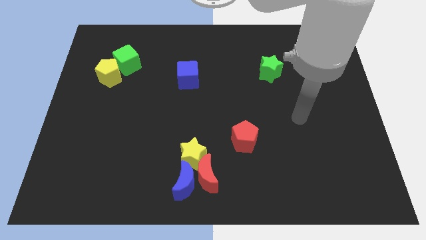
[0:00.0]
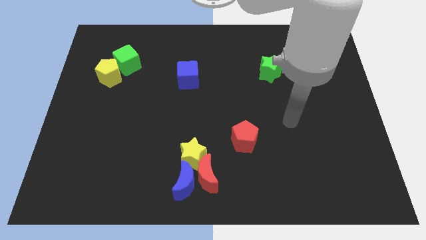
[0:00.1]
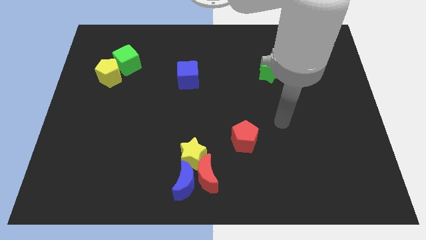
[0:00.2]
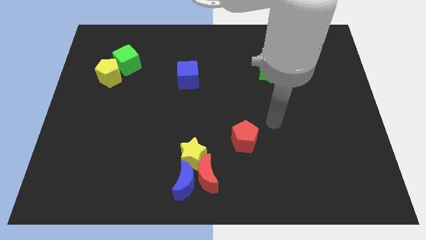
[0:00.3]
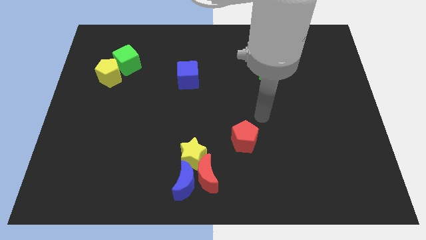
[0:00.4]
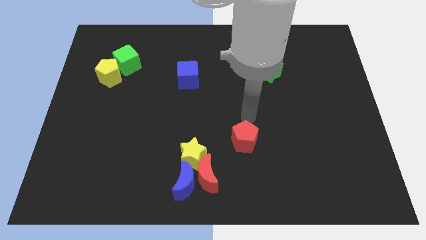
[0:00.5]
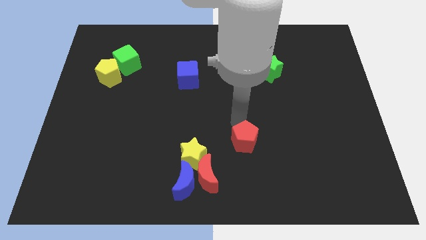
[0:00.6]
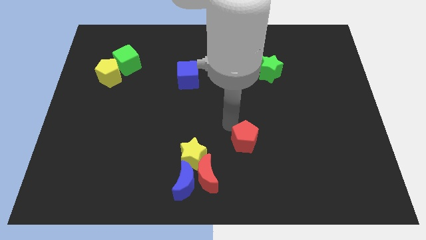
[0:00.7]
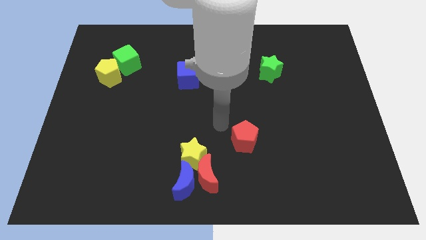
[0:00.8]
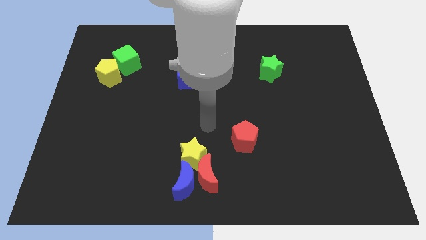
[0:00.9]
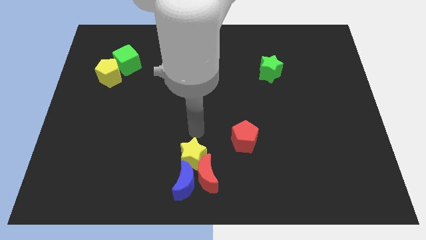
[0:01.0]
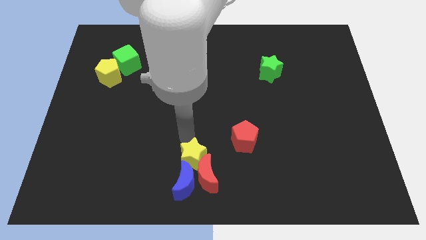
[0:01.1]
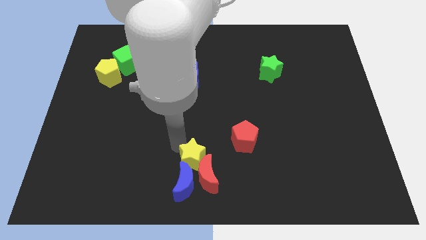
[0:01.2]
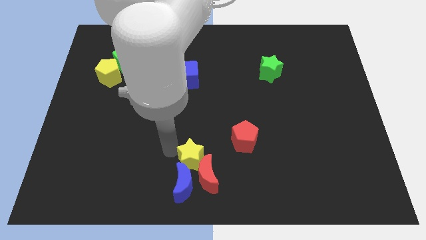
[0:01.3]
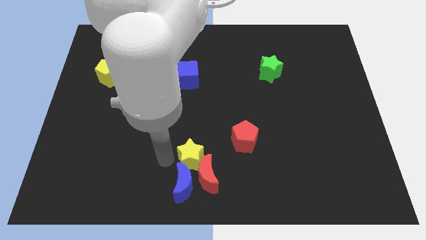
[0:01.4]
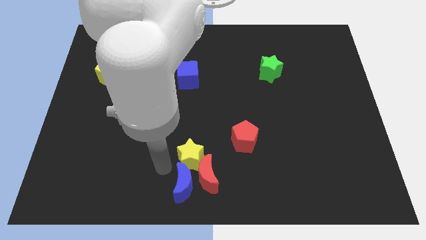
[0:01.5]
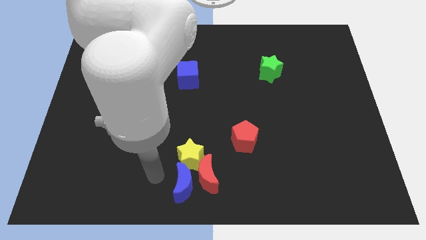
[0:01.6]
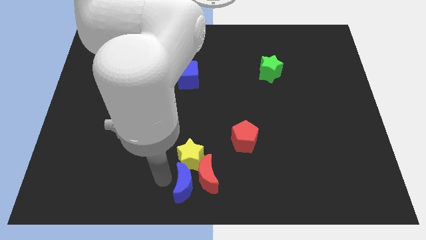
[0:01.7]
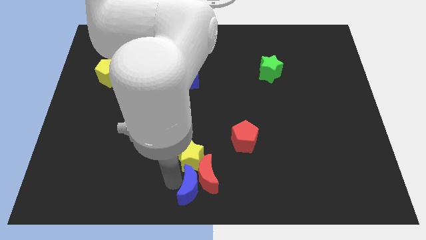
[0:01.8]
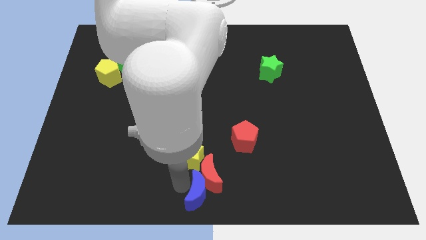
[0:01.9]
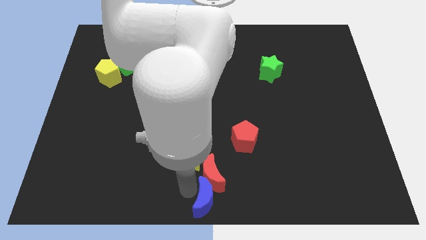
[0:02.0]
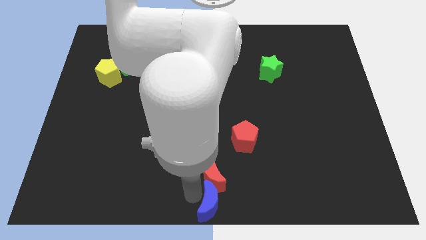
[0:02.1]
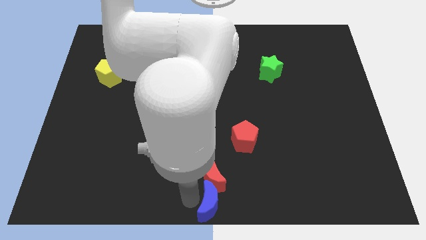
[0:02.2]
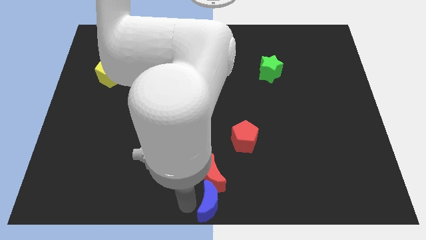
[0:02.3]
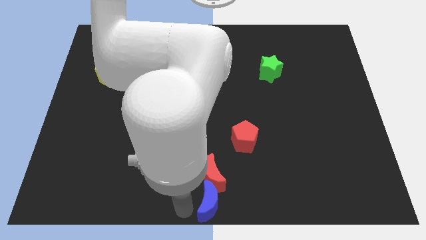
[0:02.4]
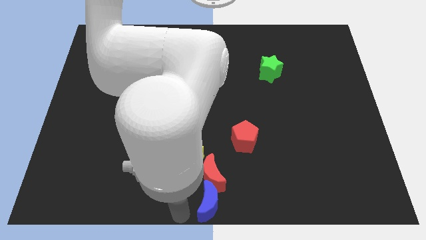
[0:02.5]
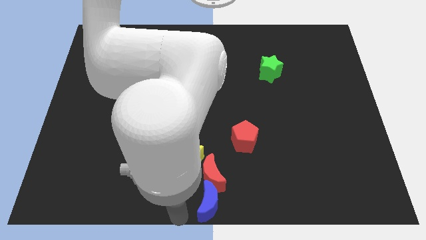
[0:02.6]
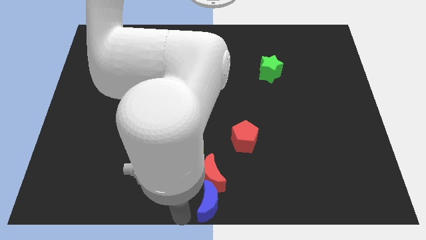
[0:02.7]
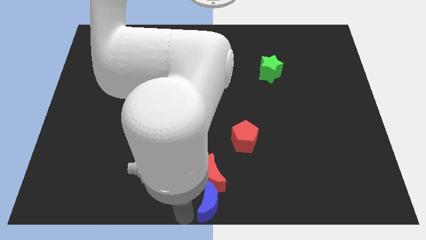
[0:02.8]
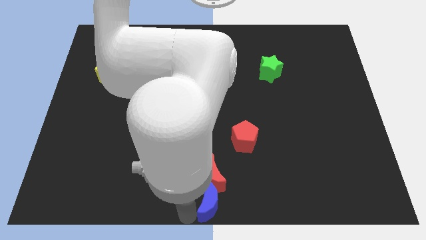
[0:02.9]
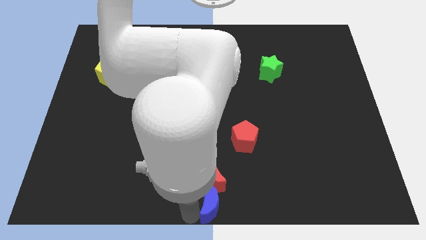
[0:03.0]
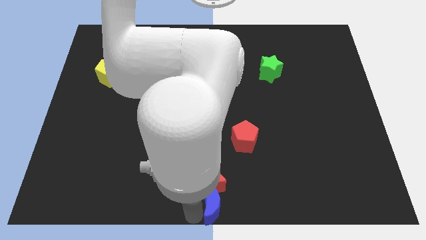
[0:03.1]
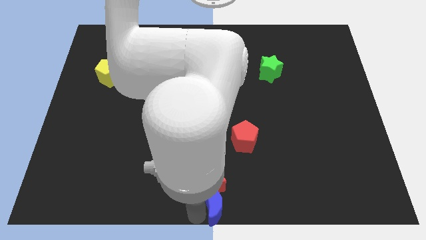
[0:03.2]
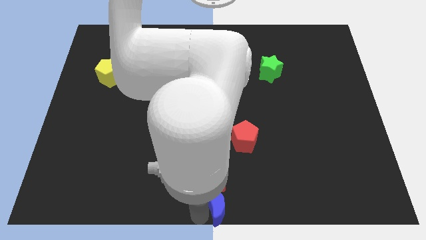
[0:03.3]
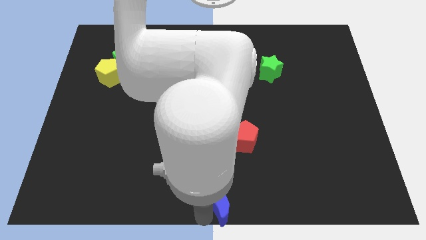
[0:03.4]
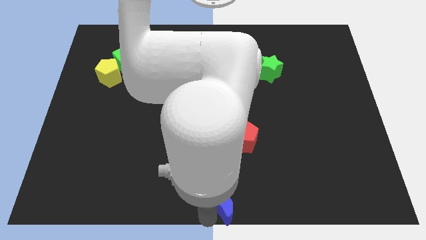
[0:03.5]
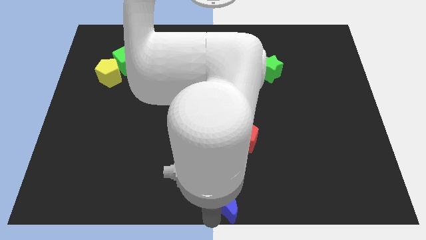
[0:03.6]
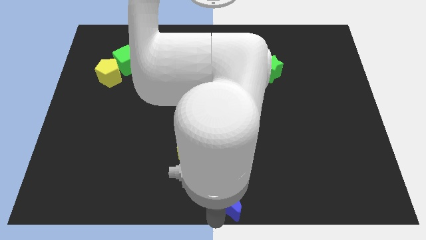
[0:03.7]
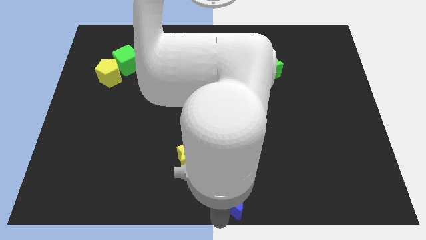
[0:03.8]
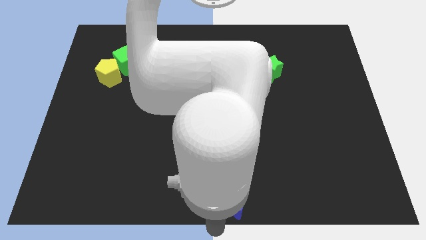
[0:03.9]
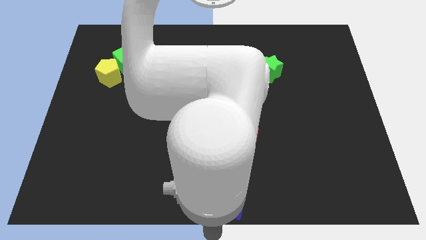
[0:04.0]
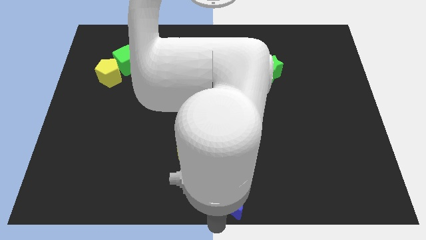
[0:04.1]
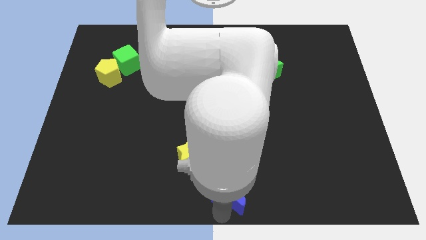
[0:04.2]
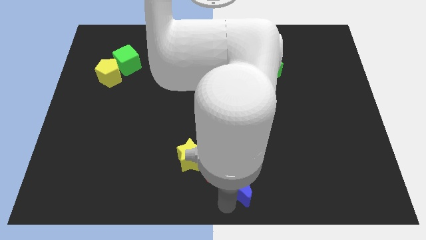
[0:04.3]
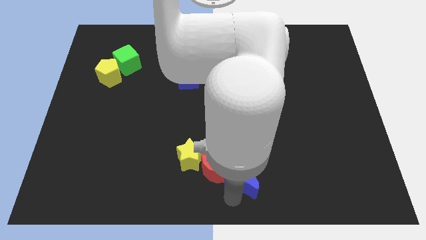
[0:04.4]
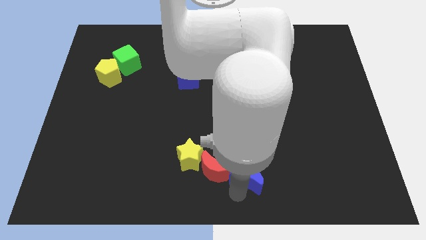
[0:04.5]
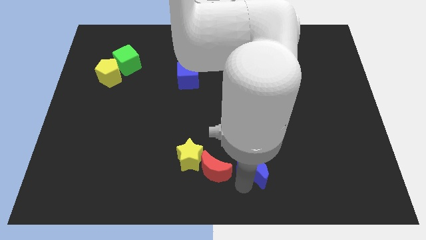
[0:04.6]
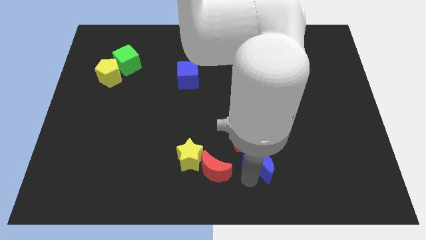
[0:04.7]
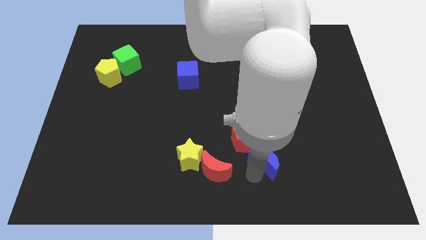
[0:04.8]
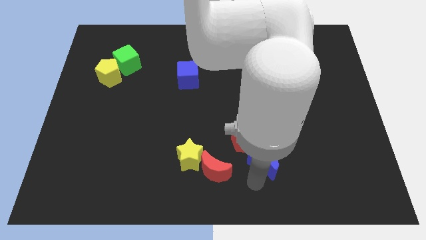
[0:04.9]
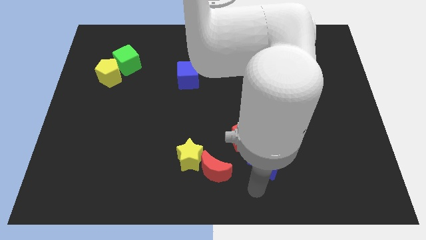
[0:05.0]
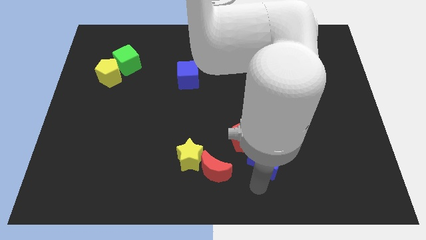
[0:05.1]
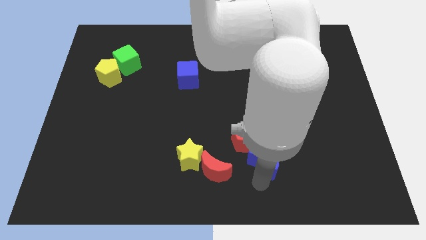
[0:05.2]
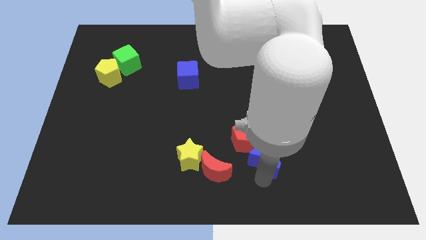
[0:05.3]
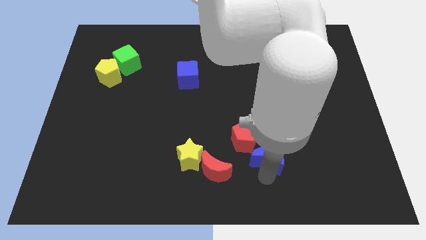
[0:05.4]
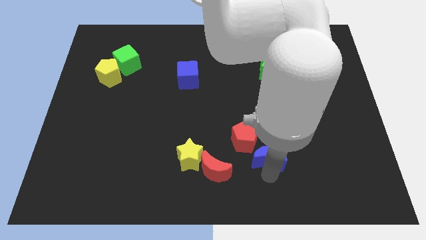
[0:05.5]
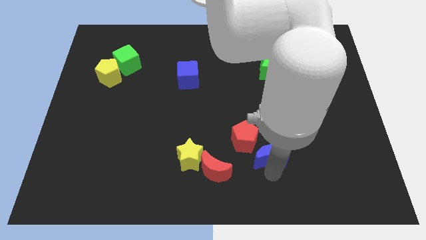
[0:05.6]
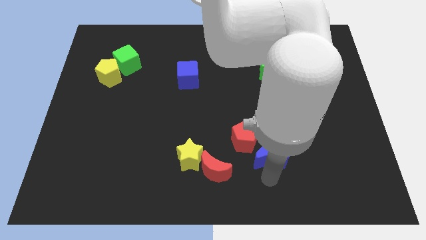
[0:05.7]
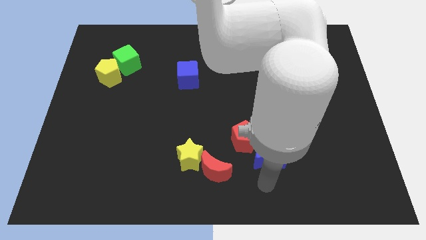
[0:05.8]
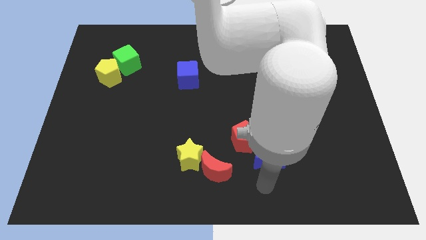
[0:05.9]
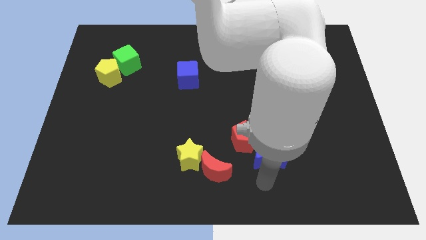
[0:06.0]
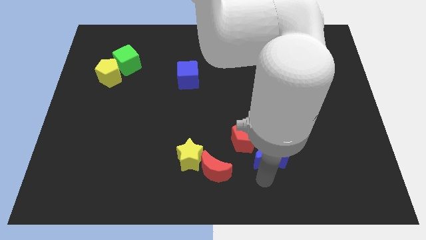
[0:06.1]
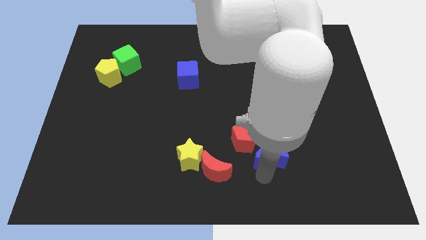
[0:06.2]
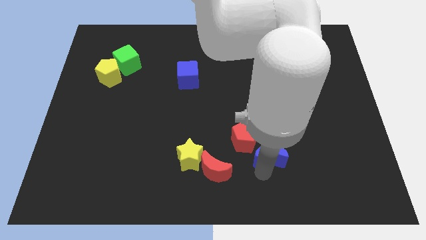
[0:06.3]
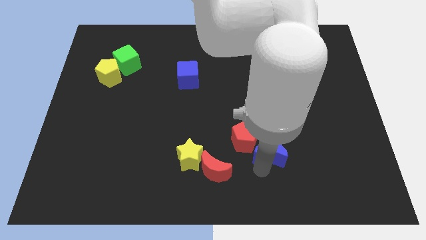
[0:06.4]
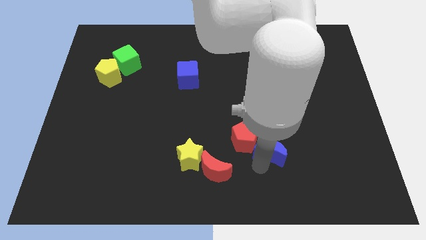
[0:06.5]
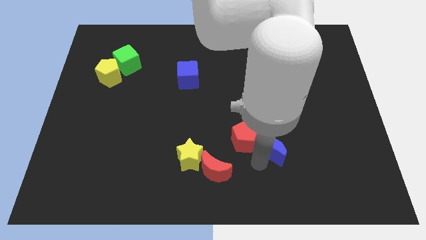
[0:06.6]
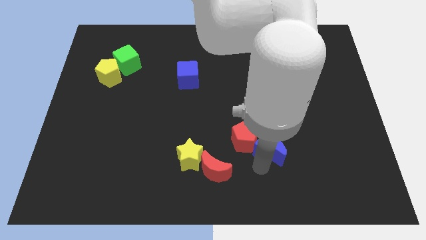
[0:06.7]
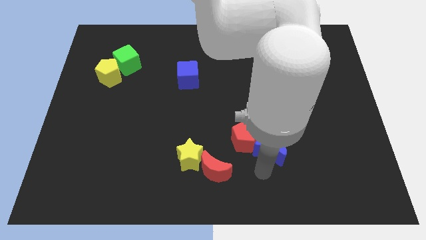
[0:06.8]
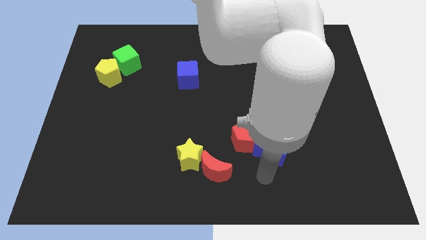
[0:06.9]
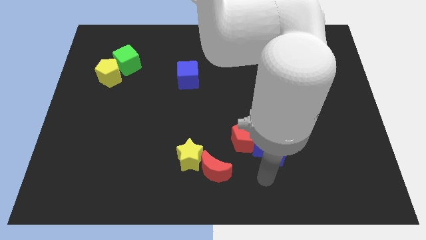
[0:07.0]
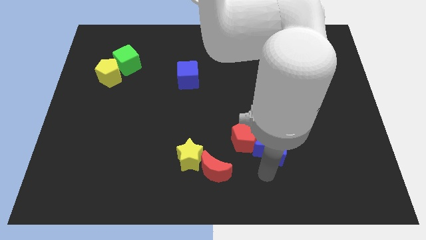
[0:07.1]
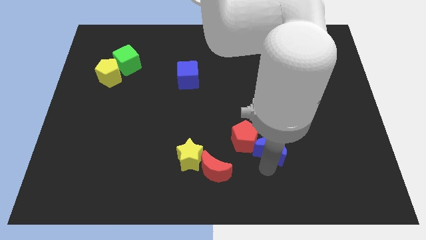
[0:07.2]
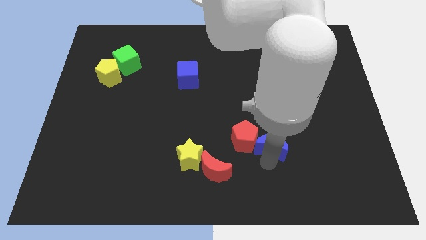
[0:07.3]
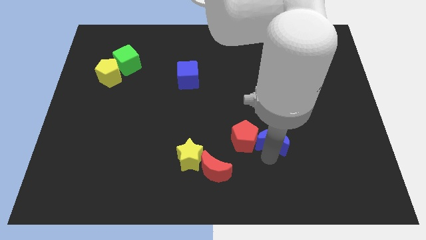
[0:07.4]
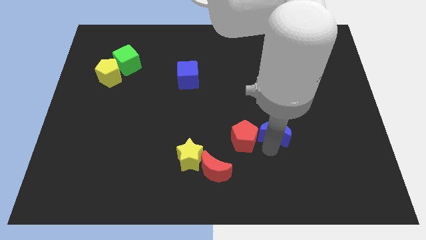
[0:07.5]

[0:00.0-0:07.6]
slide the blue moon up and then to the right

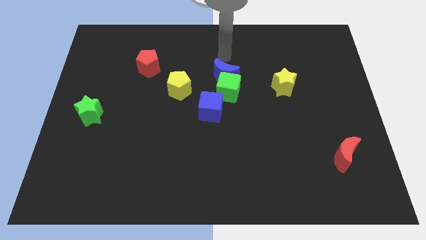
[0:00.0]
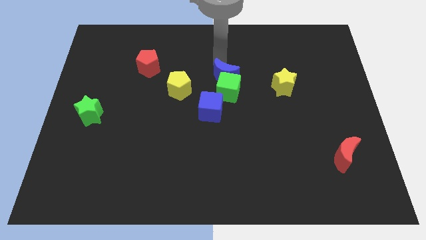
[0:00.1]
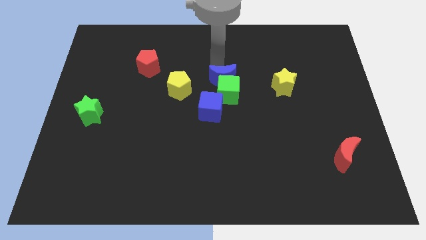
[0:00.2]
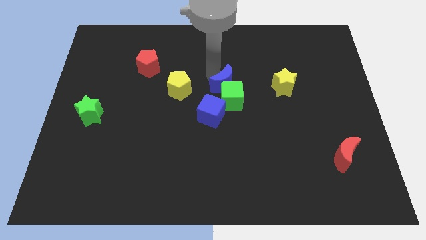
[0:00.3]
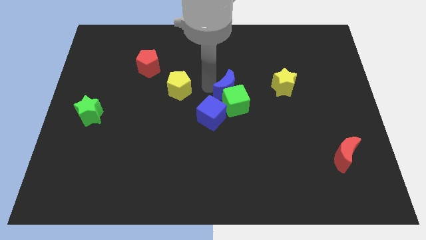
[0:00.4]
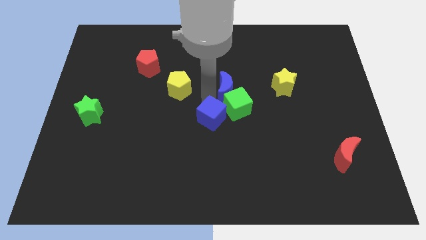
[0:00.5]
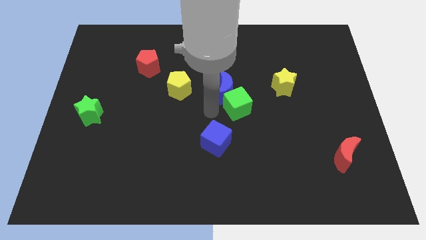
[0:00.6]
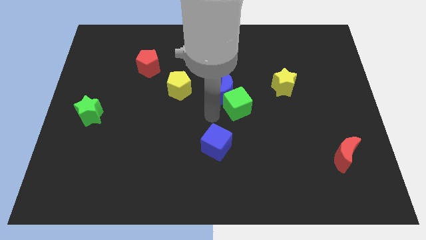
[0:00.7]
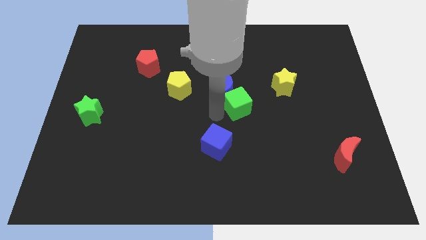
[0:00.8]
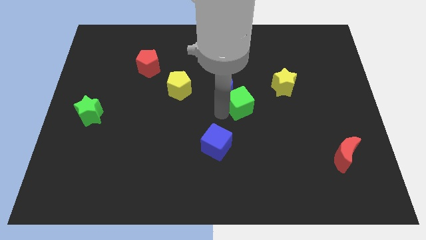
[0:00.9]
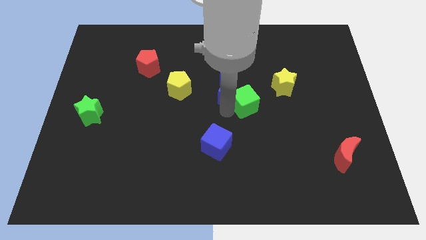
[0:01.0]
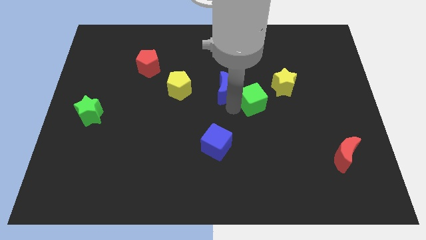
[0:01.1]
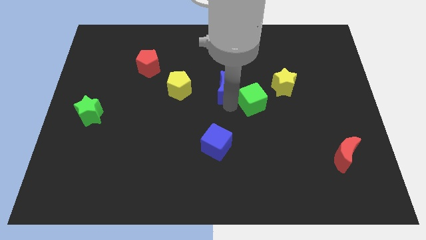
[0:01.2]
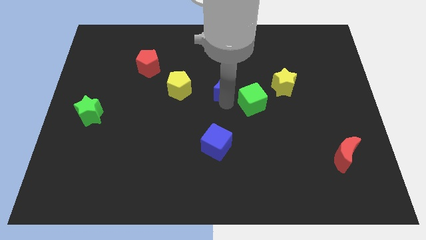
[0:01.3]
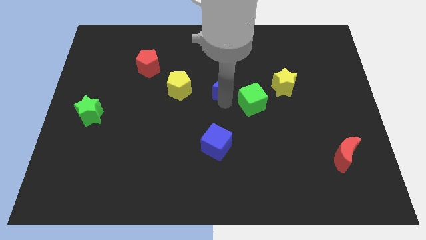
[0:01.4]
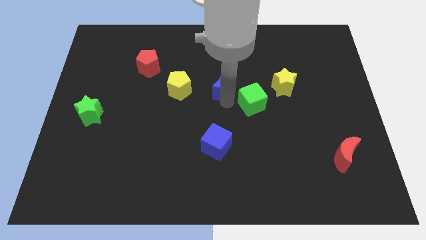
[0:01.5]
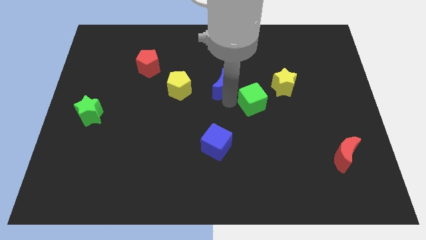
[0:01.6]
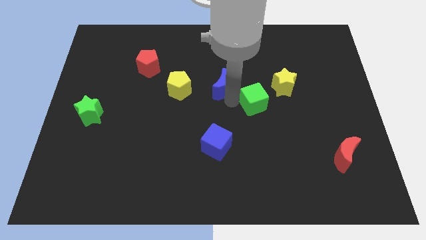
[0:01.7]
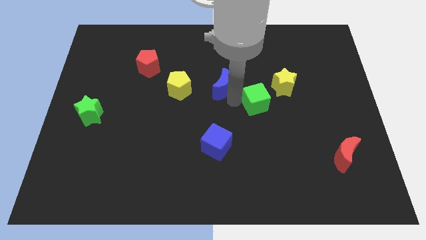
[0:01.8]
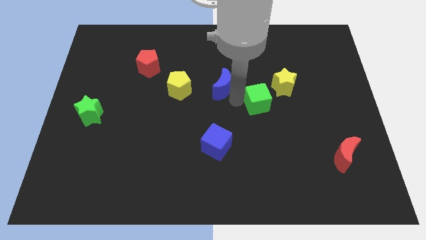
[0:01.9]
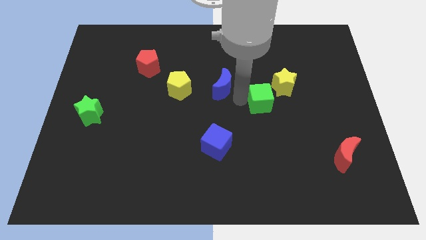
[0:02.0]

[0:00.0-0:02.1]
slightly push the green cube right
